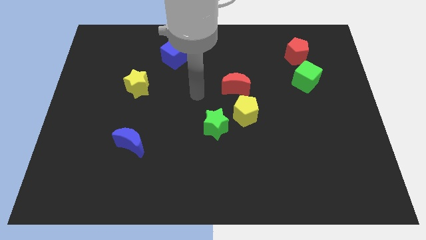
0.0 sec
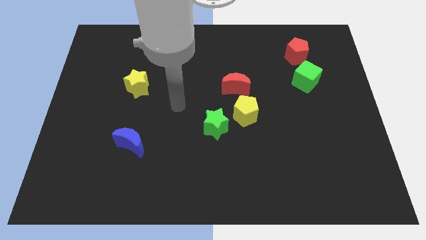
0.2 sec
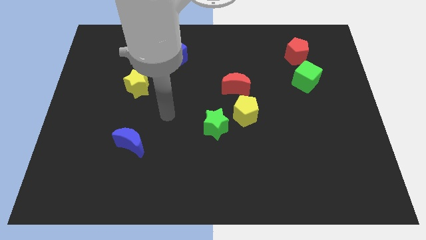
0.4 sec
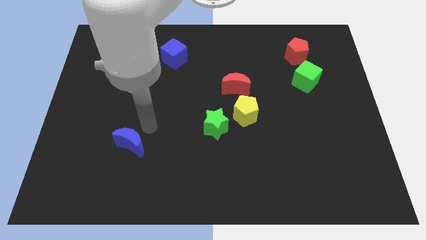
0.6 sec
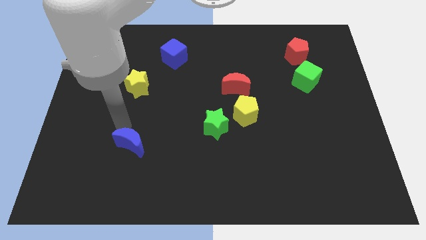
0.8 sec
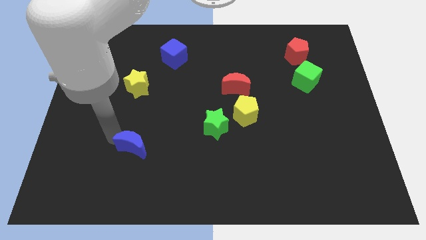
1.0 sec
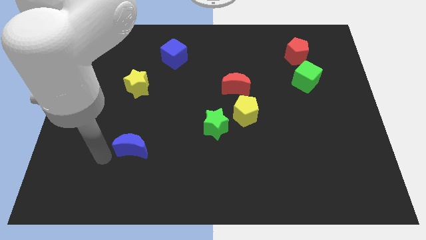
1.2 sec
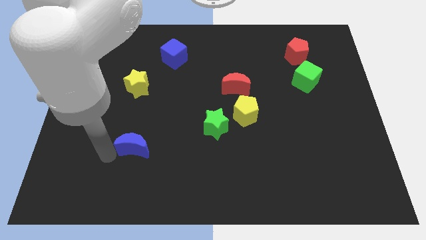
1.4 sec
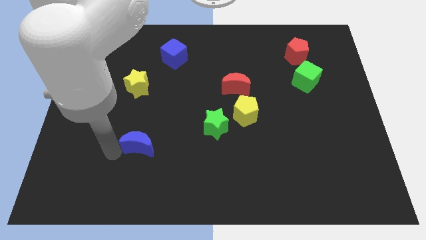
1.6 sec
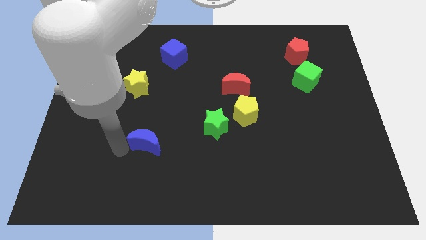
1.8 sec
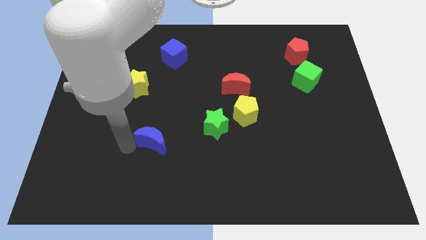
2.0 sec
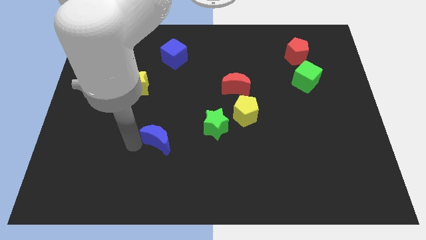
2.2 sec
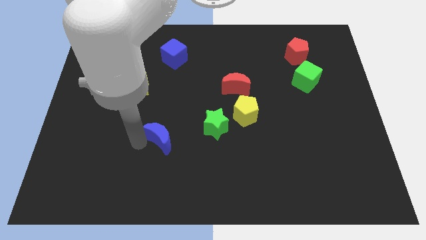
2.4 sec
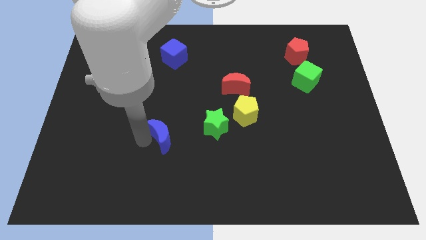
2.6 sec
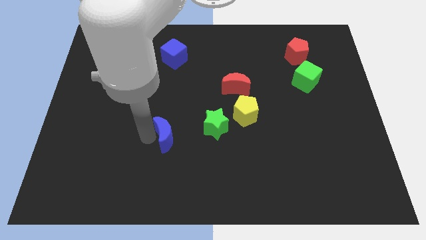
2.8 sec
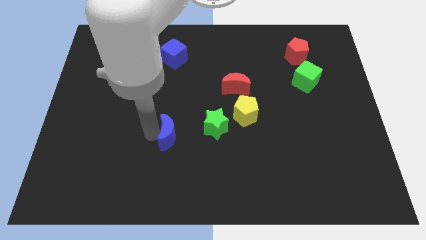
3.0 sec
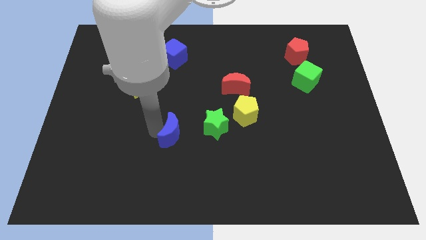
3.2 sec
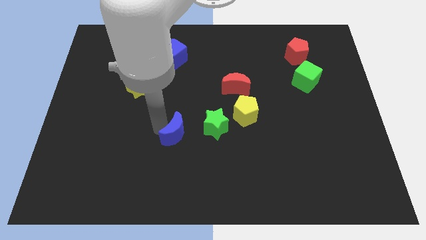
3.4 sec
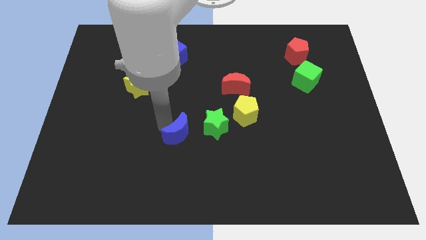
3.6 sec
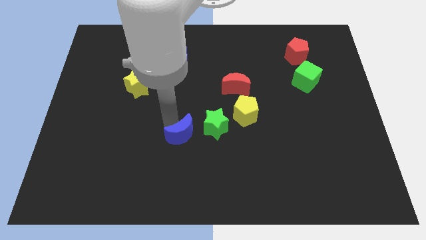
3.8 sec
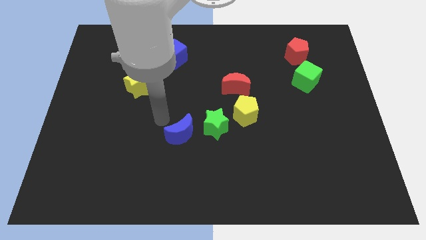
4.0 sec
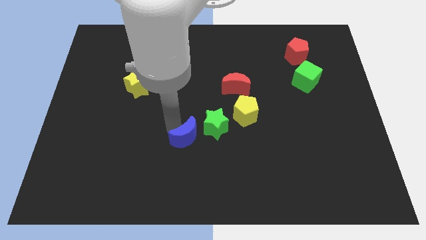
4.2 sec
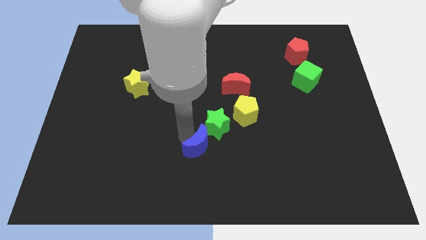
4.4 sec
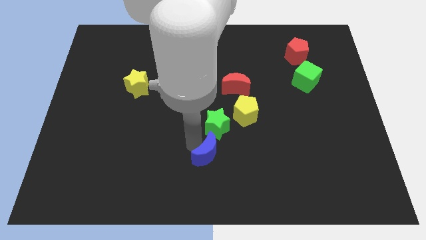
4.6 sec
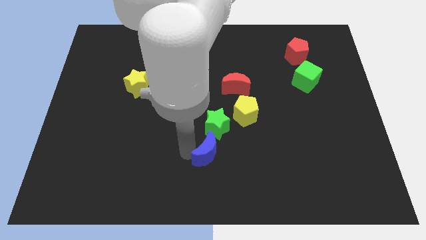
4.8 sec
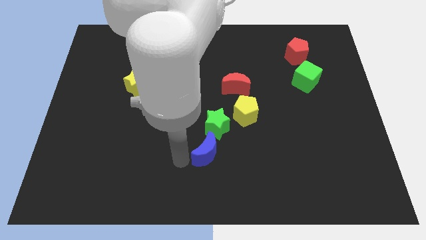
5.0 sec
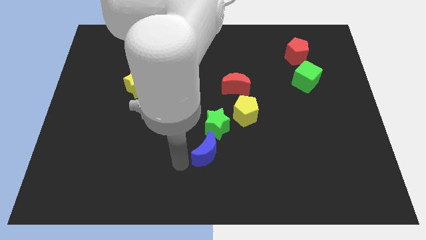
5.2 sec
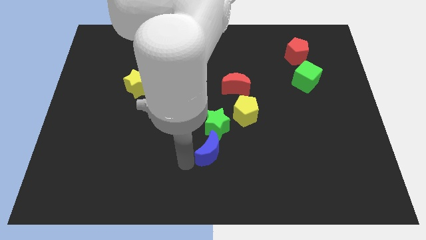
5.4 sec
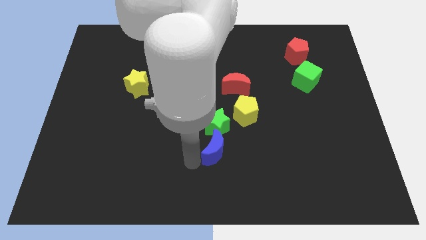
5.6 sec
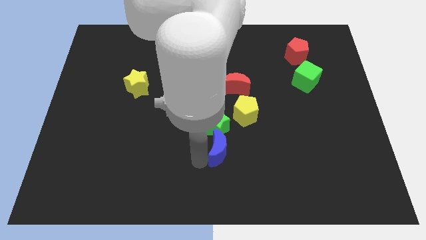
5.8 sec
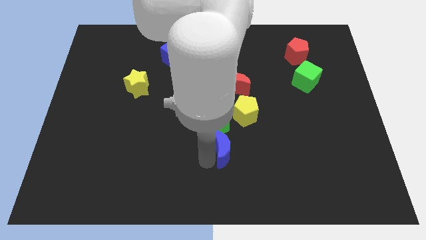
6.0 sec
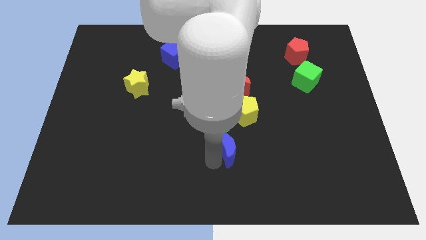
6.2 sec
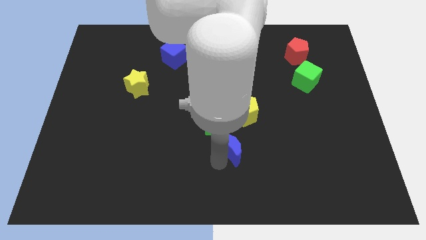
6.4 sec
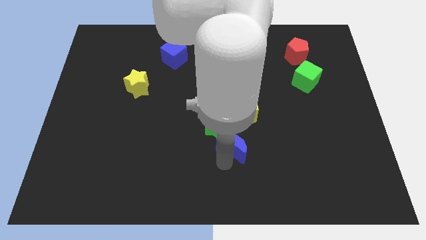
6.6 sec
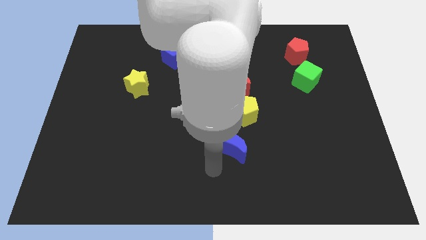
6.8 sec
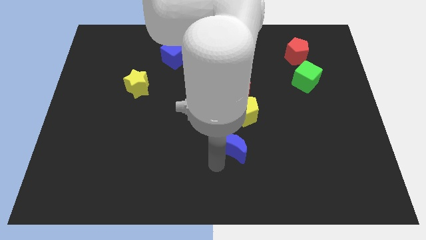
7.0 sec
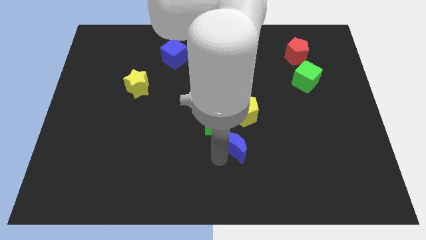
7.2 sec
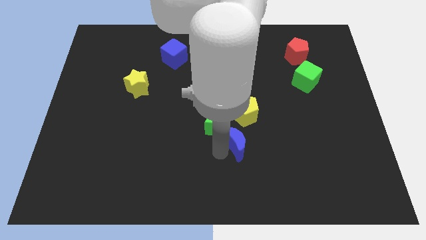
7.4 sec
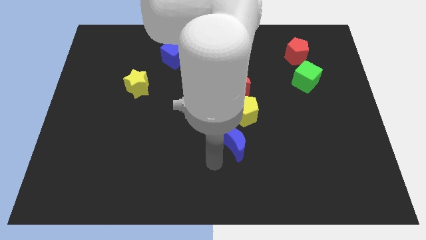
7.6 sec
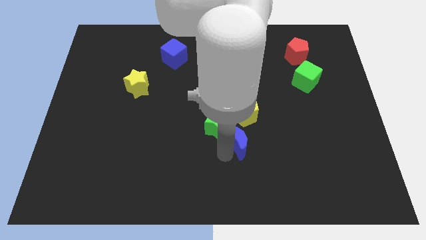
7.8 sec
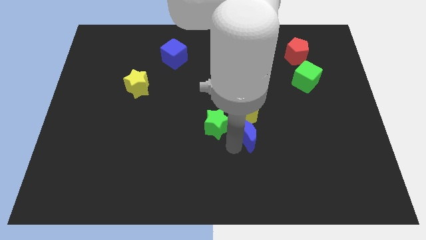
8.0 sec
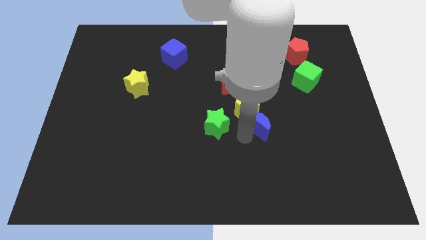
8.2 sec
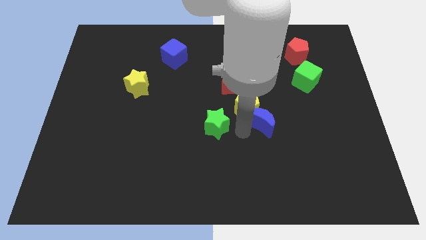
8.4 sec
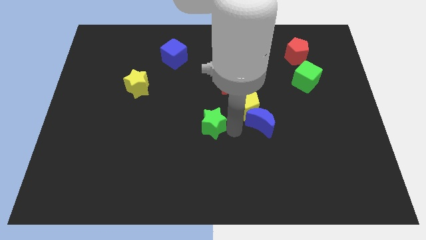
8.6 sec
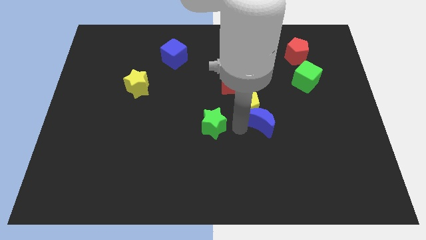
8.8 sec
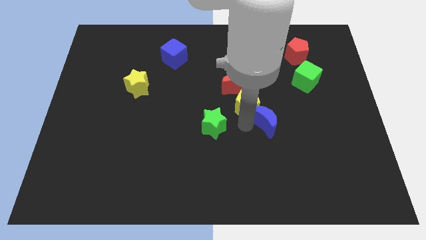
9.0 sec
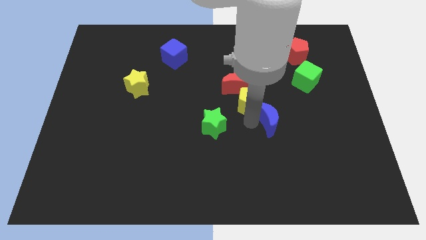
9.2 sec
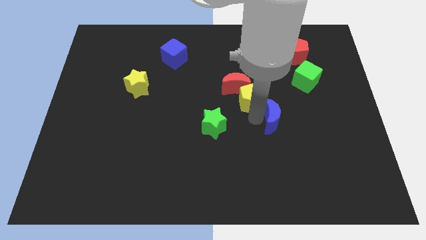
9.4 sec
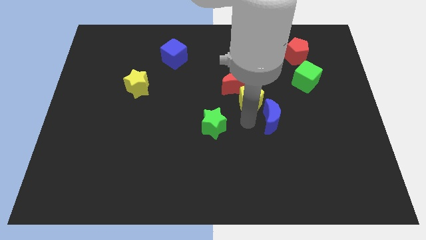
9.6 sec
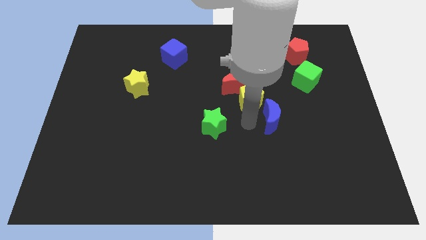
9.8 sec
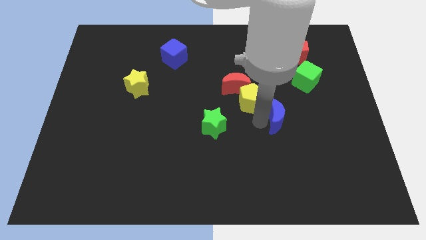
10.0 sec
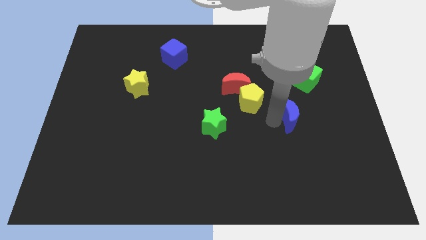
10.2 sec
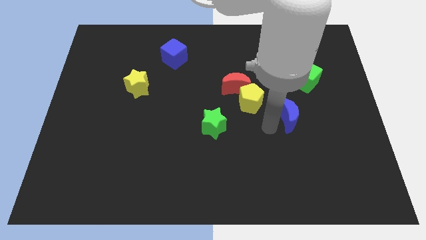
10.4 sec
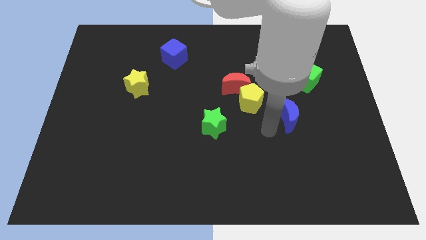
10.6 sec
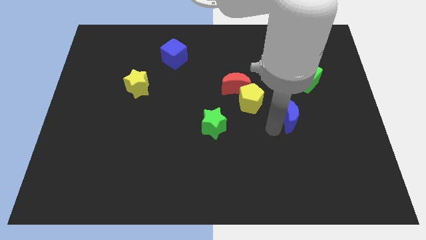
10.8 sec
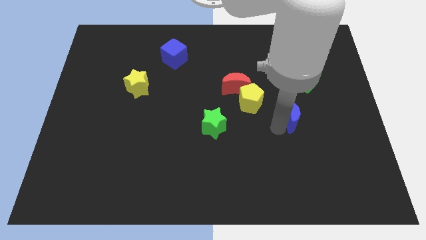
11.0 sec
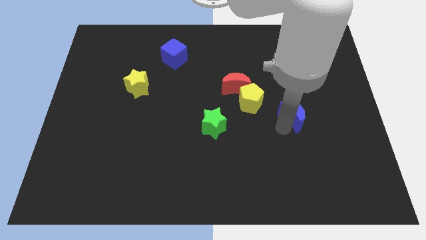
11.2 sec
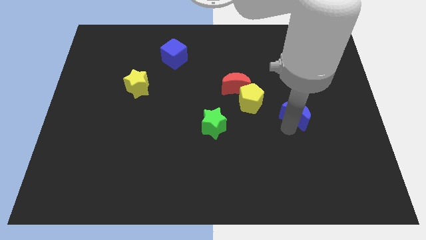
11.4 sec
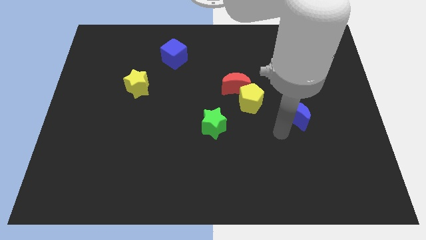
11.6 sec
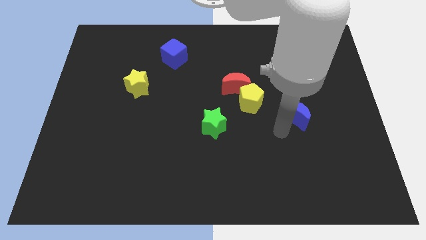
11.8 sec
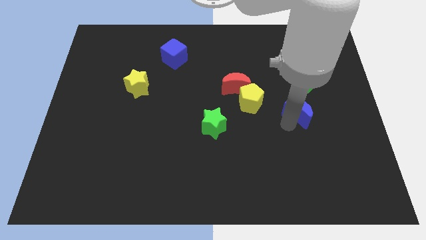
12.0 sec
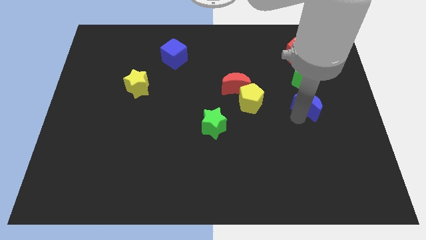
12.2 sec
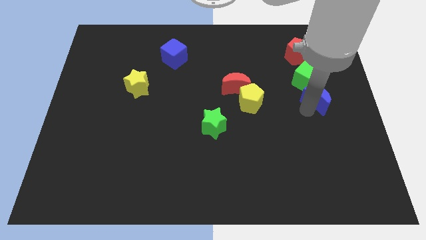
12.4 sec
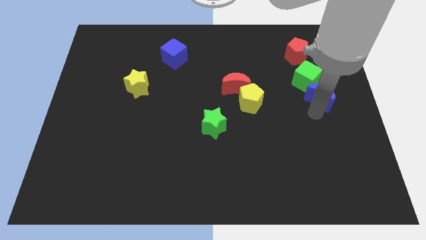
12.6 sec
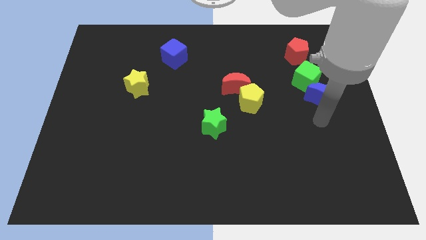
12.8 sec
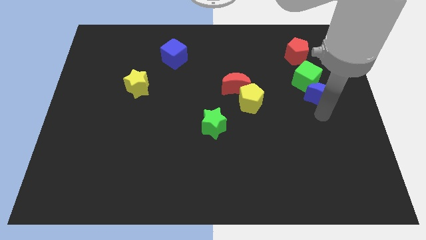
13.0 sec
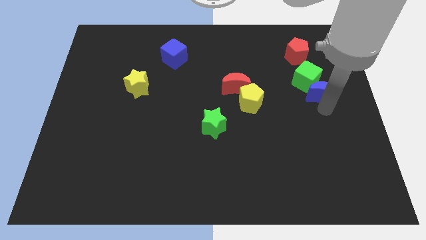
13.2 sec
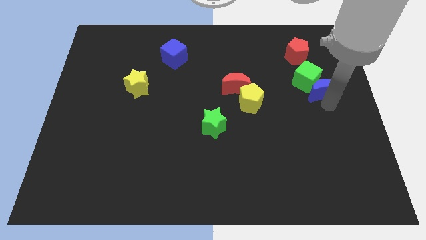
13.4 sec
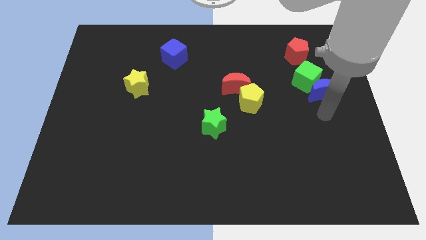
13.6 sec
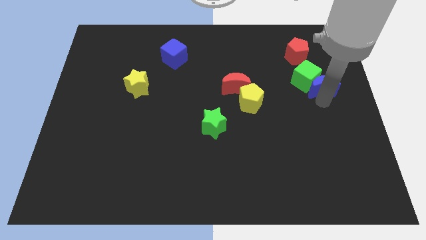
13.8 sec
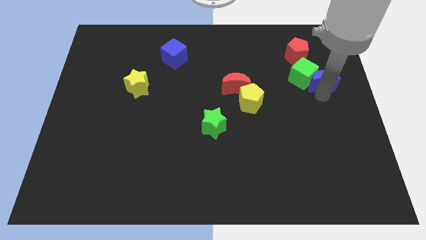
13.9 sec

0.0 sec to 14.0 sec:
put the blue moon diagonally down and to the right of the red pentagon

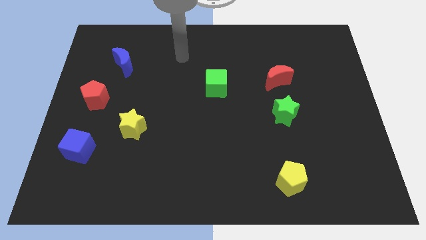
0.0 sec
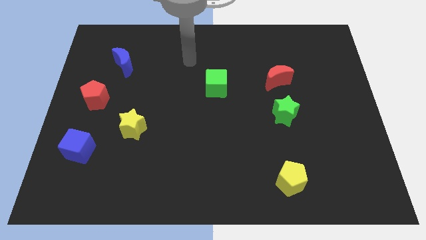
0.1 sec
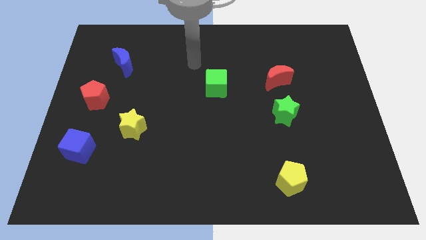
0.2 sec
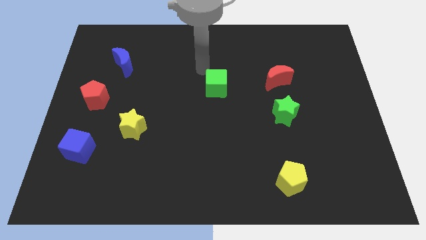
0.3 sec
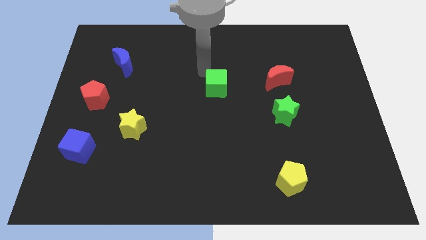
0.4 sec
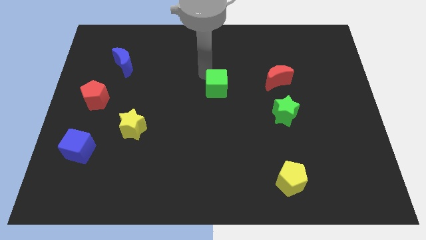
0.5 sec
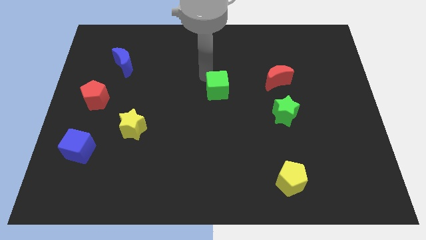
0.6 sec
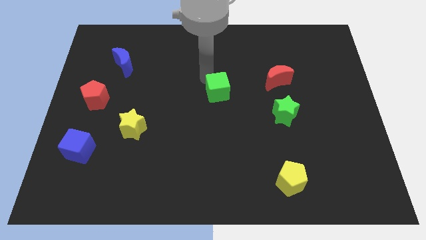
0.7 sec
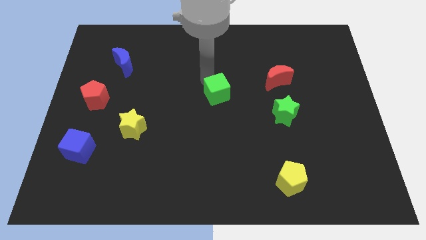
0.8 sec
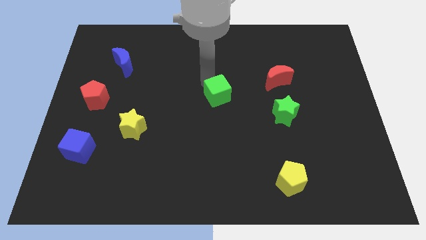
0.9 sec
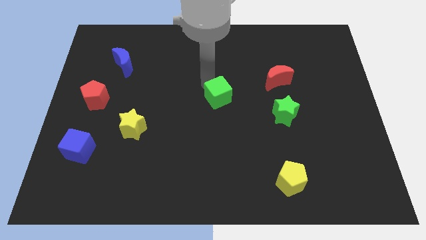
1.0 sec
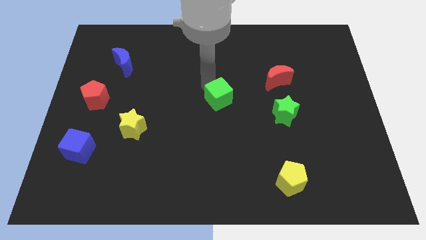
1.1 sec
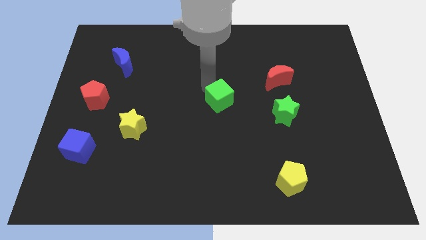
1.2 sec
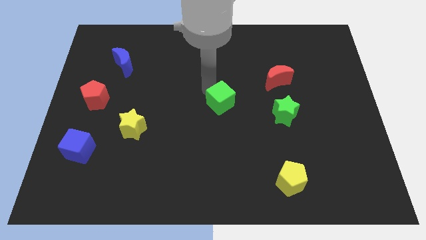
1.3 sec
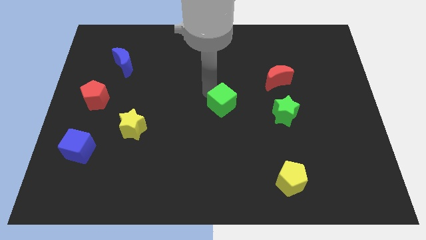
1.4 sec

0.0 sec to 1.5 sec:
move the green cube to the left of the green star
